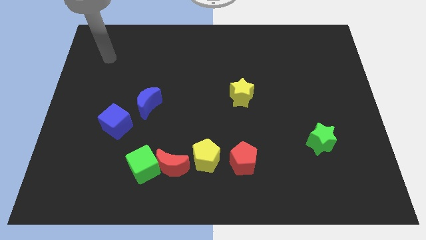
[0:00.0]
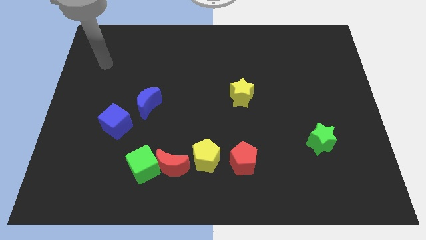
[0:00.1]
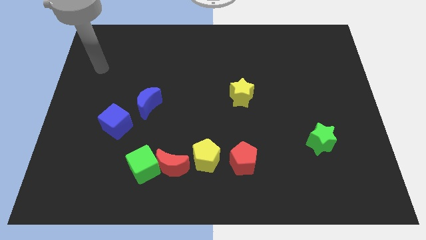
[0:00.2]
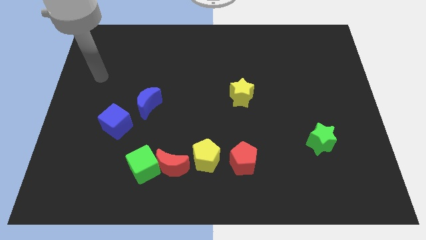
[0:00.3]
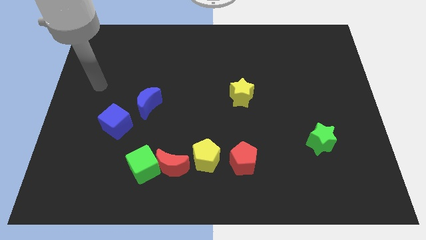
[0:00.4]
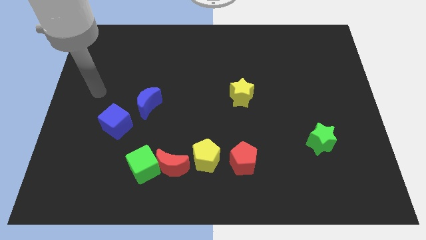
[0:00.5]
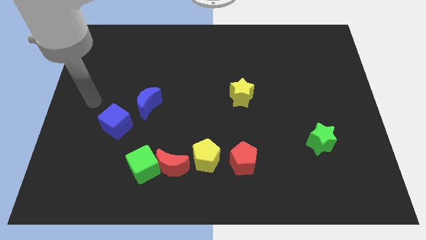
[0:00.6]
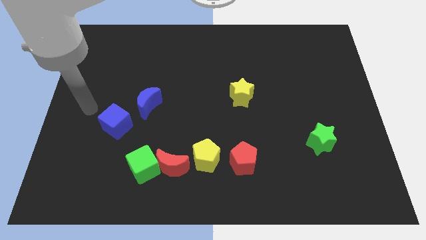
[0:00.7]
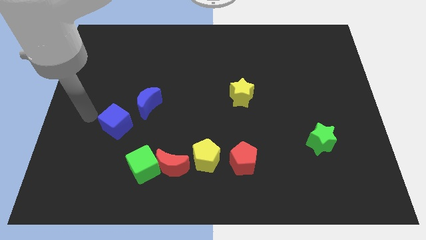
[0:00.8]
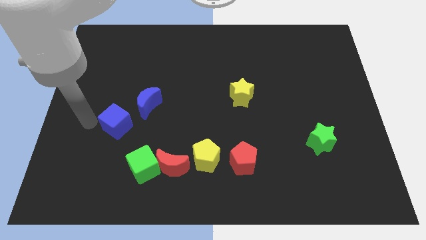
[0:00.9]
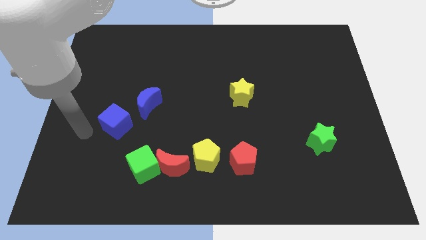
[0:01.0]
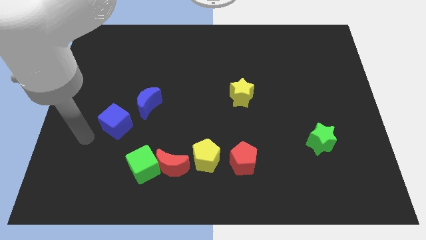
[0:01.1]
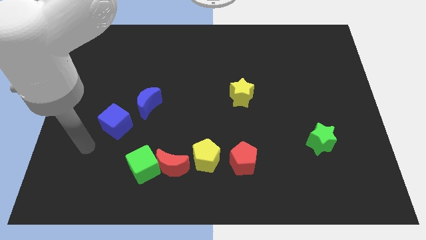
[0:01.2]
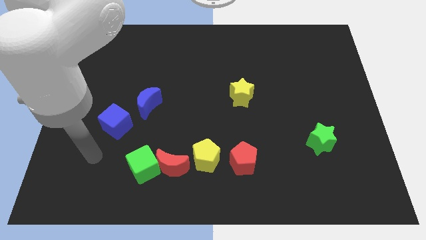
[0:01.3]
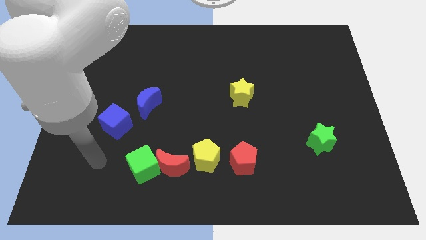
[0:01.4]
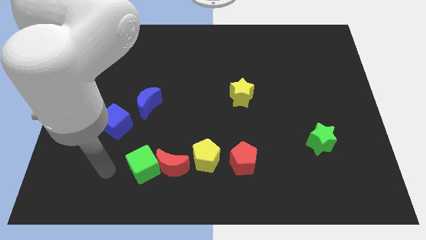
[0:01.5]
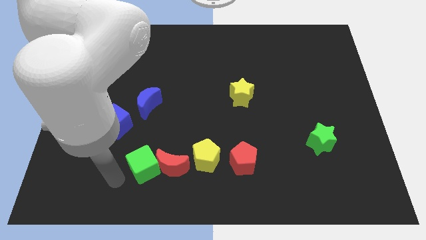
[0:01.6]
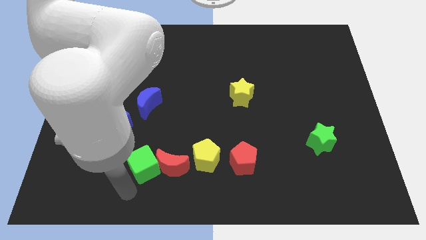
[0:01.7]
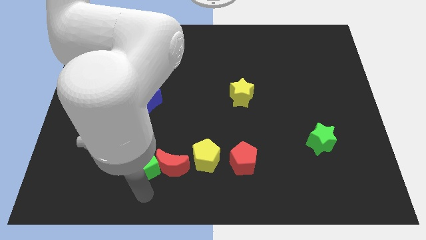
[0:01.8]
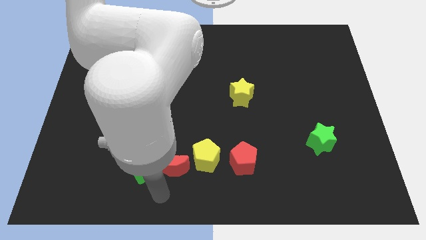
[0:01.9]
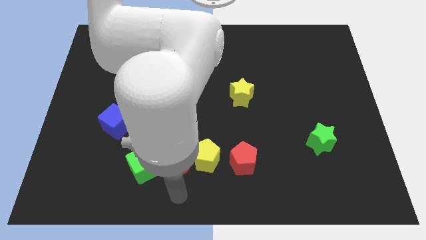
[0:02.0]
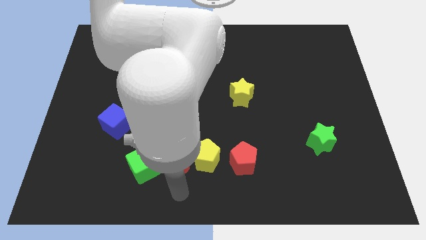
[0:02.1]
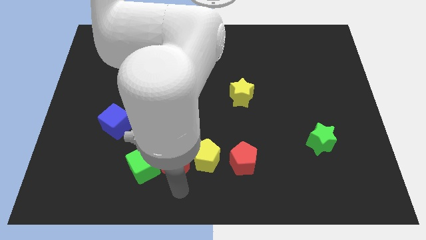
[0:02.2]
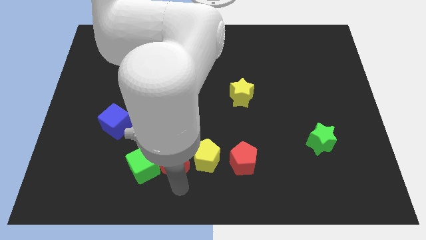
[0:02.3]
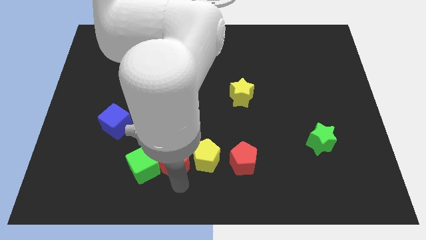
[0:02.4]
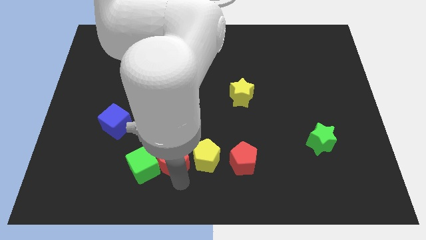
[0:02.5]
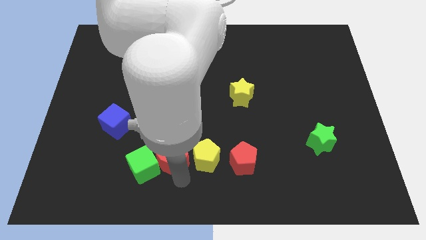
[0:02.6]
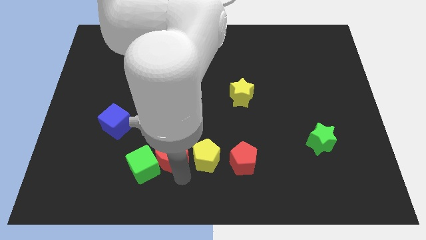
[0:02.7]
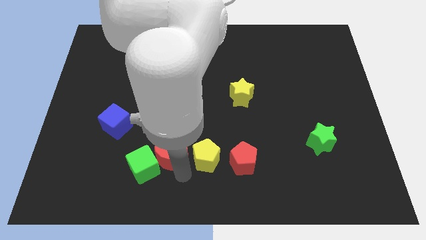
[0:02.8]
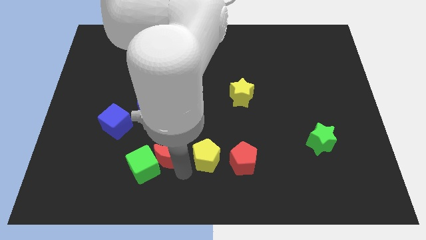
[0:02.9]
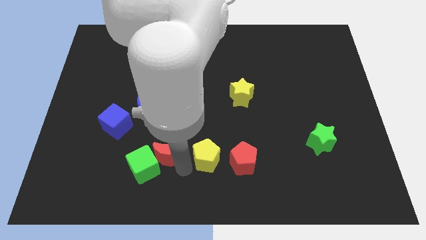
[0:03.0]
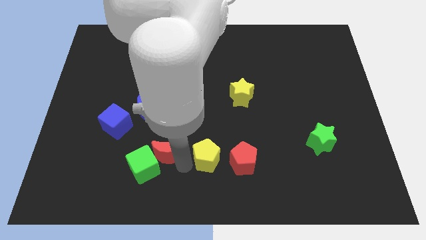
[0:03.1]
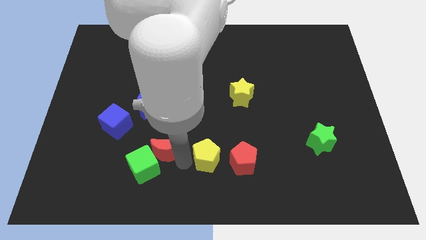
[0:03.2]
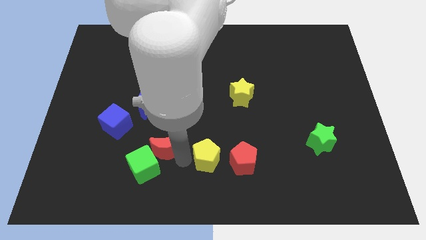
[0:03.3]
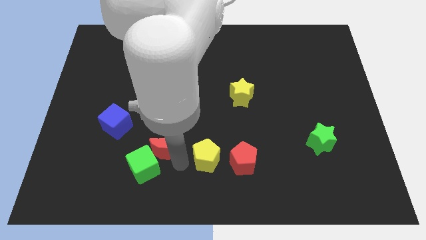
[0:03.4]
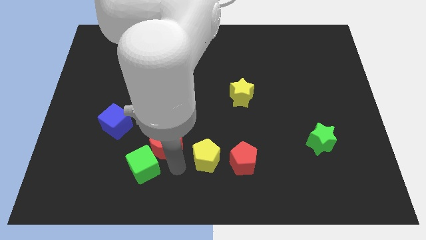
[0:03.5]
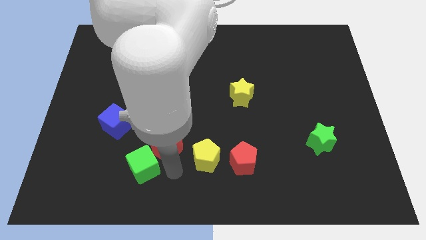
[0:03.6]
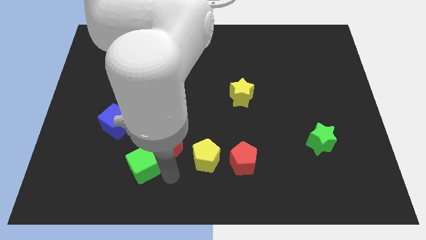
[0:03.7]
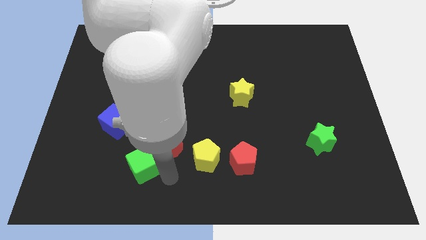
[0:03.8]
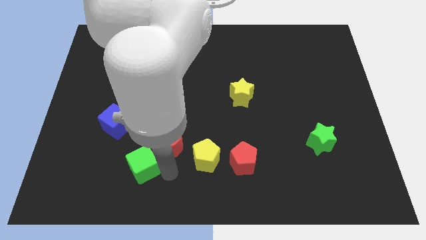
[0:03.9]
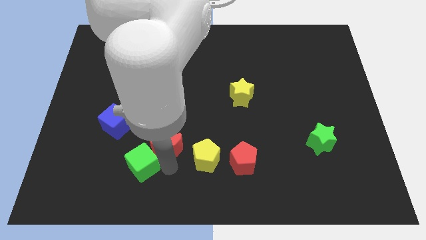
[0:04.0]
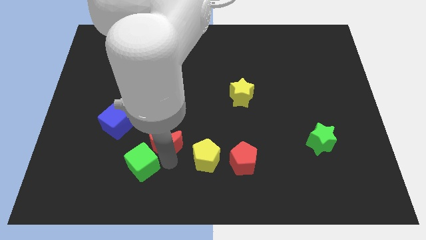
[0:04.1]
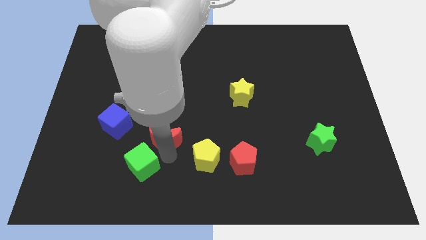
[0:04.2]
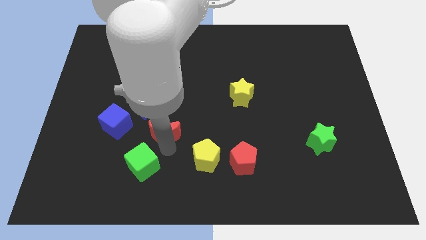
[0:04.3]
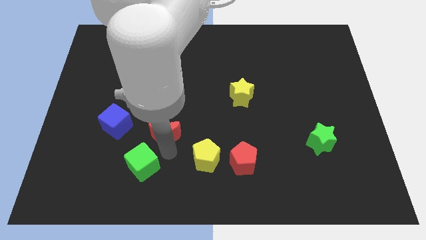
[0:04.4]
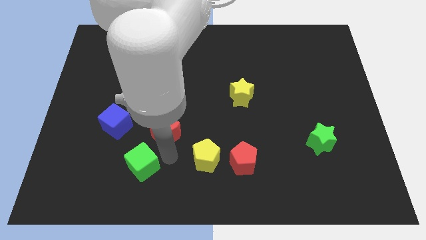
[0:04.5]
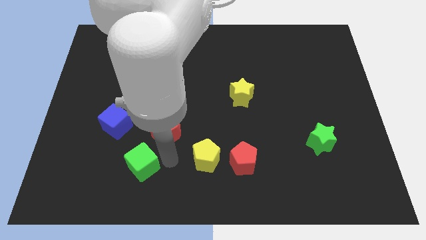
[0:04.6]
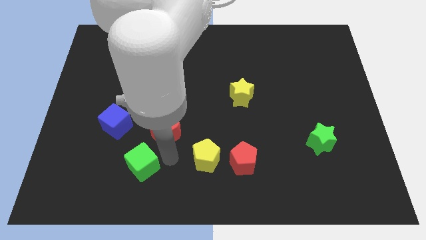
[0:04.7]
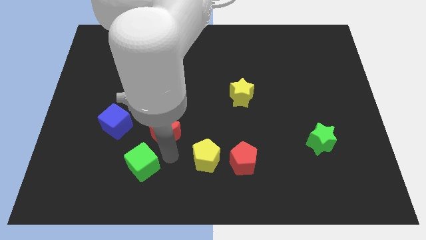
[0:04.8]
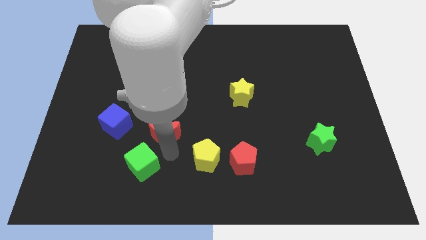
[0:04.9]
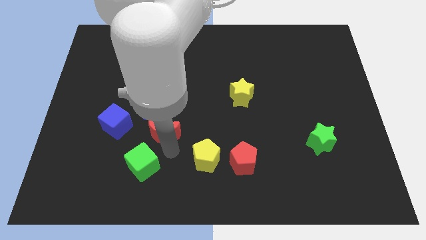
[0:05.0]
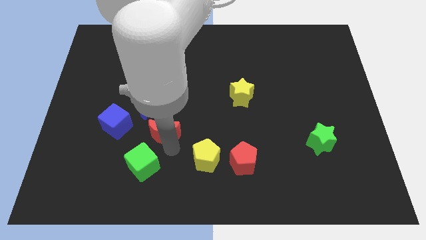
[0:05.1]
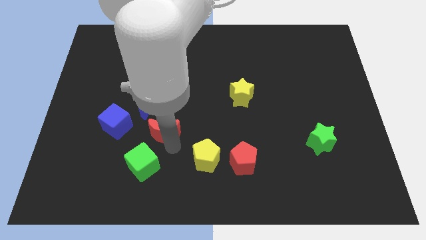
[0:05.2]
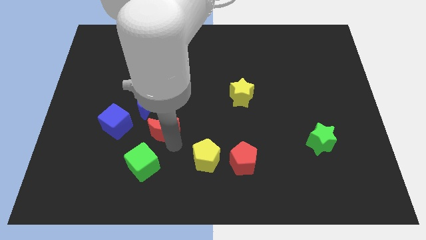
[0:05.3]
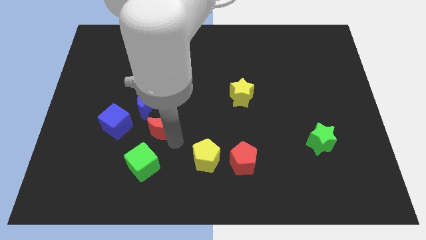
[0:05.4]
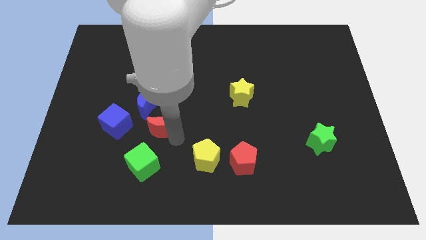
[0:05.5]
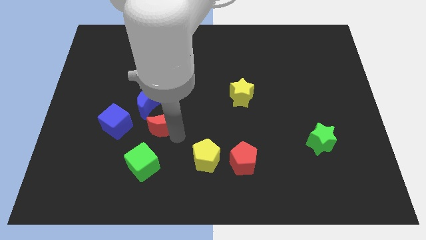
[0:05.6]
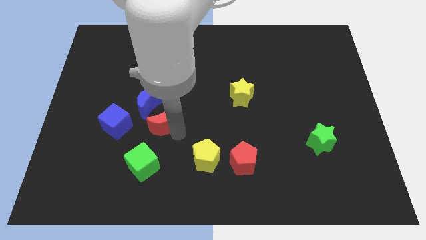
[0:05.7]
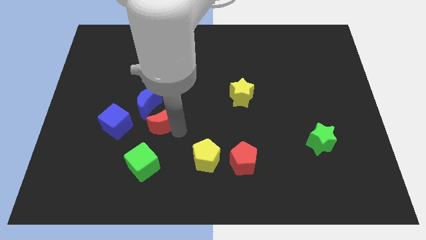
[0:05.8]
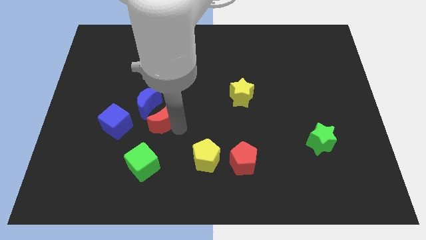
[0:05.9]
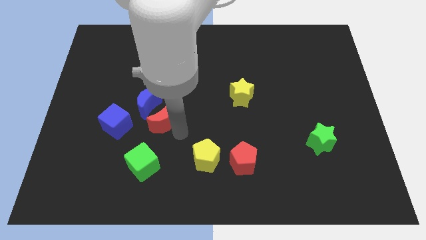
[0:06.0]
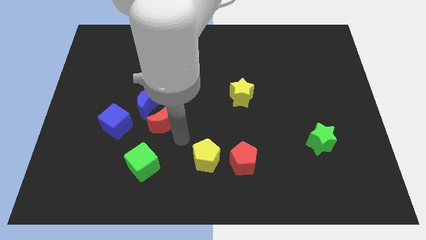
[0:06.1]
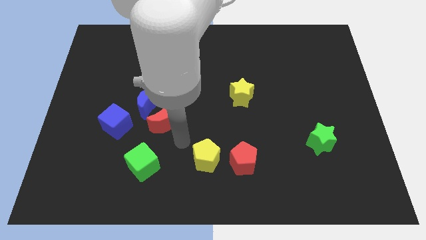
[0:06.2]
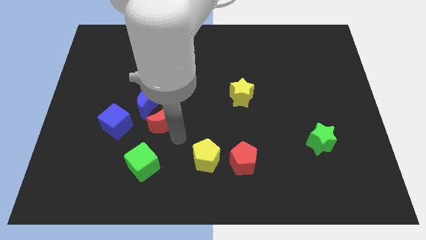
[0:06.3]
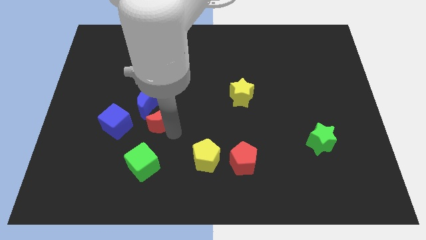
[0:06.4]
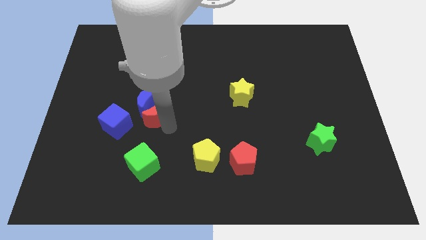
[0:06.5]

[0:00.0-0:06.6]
put the red moon close to the blue moon
